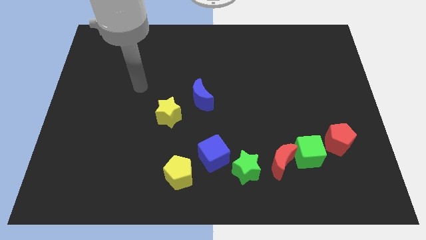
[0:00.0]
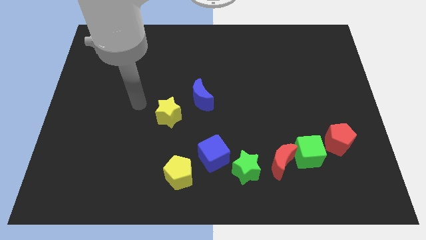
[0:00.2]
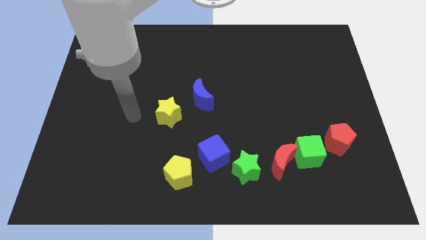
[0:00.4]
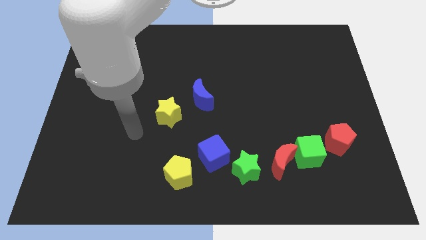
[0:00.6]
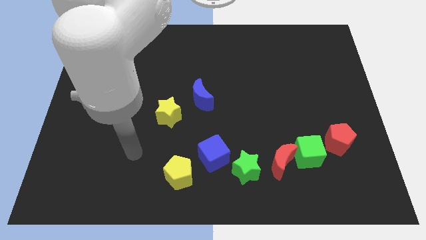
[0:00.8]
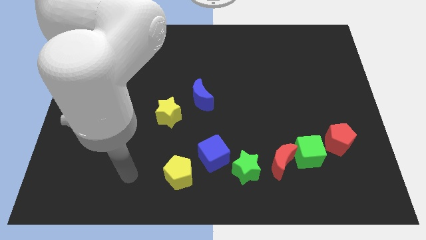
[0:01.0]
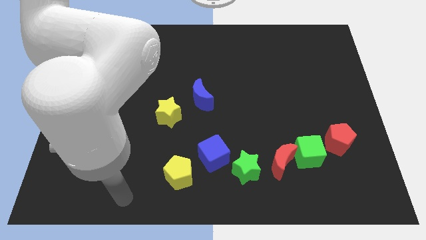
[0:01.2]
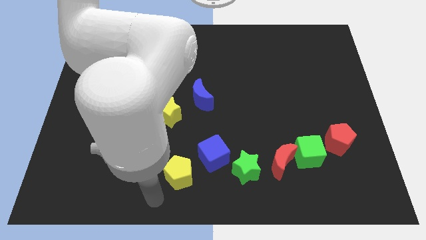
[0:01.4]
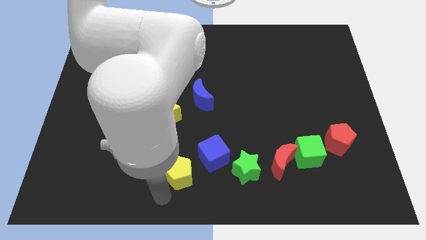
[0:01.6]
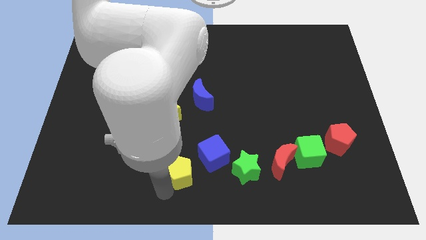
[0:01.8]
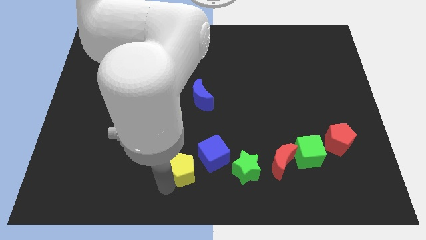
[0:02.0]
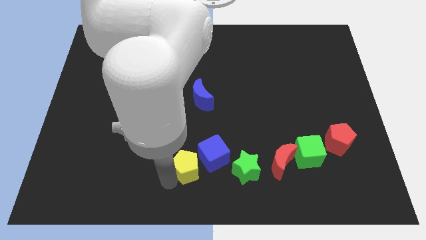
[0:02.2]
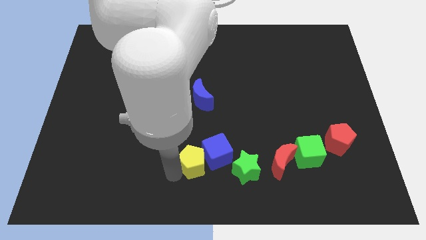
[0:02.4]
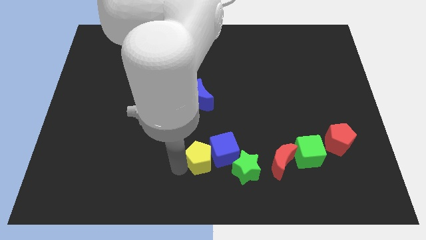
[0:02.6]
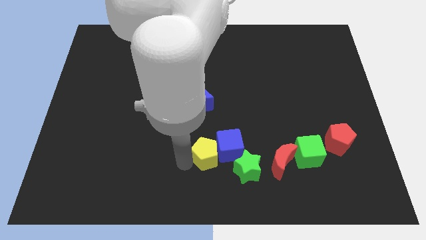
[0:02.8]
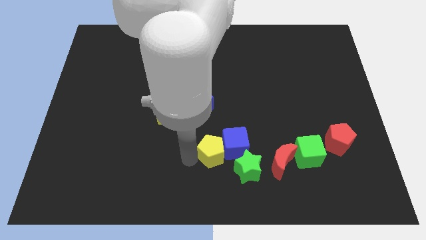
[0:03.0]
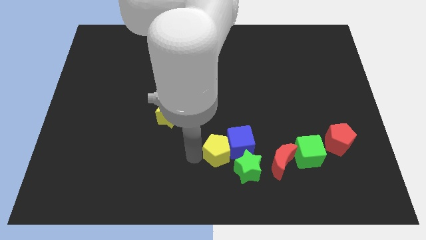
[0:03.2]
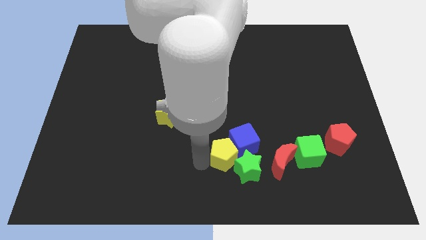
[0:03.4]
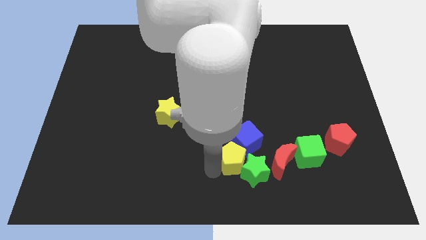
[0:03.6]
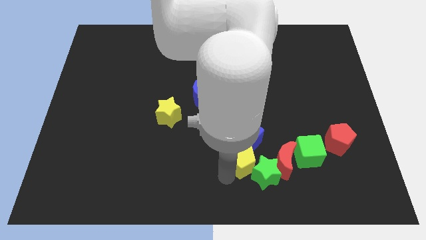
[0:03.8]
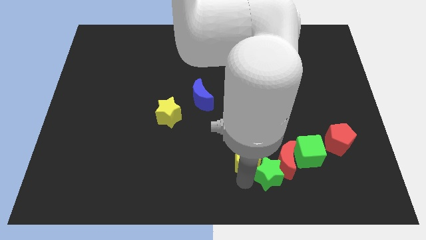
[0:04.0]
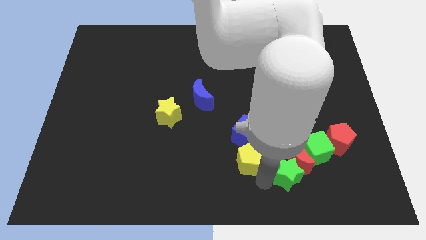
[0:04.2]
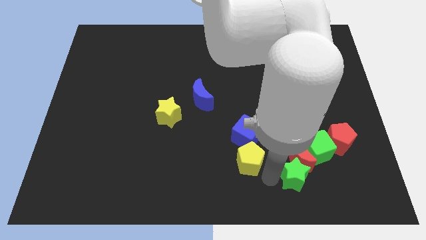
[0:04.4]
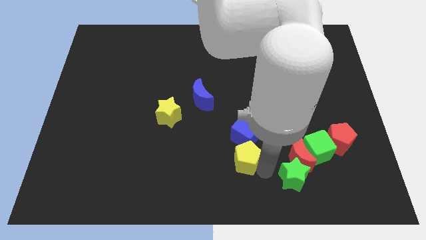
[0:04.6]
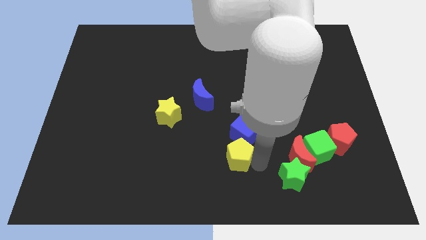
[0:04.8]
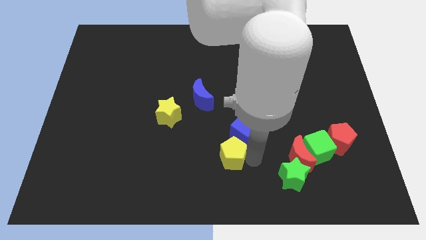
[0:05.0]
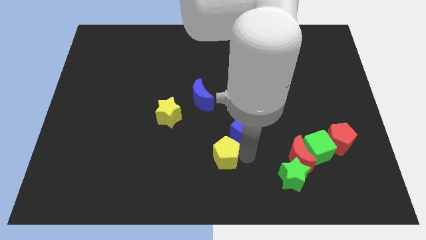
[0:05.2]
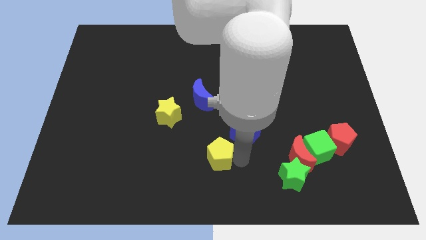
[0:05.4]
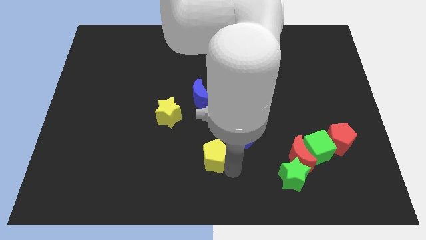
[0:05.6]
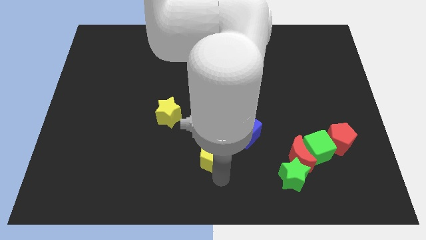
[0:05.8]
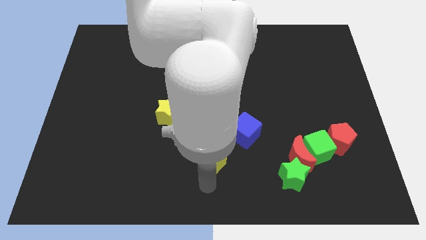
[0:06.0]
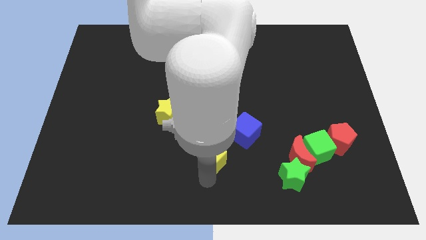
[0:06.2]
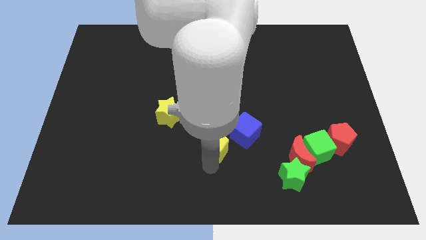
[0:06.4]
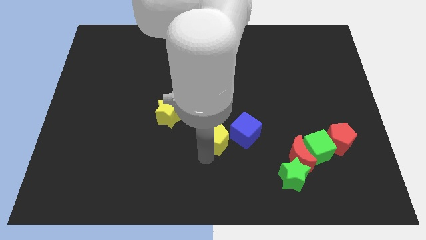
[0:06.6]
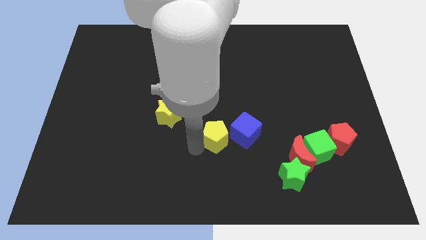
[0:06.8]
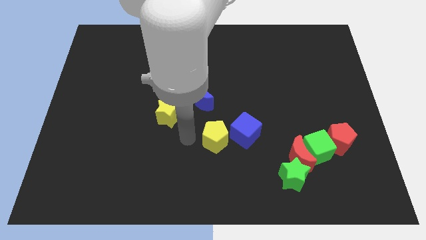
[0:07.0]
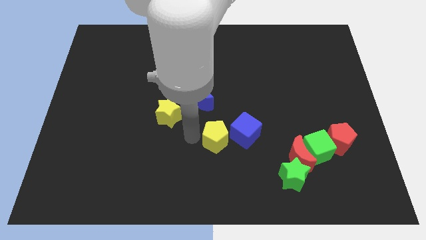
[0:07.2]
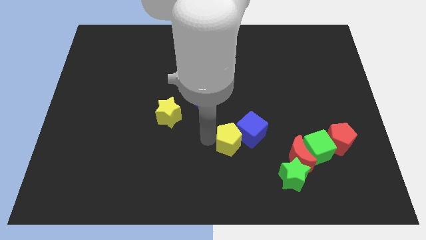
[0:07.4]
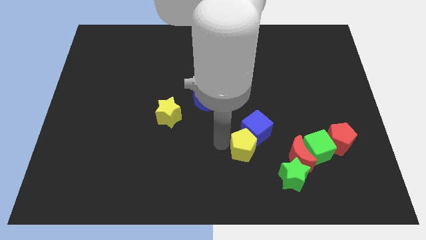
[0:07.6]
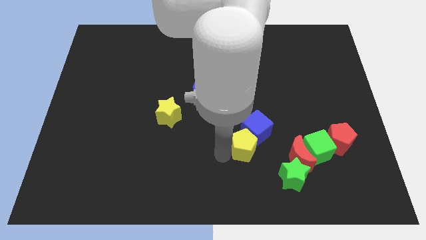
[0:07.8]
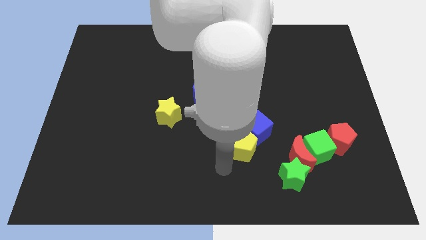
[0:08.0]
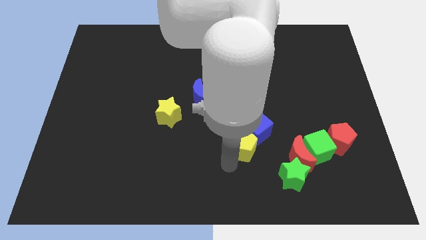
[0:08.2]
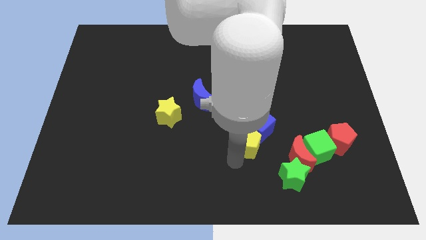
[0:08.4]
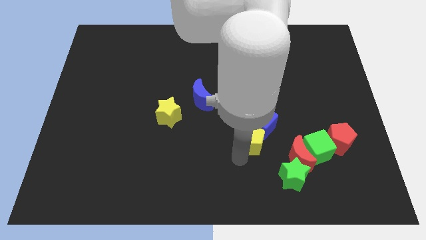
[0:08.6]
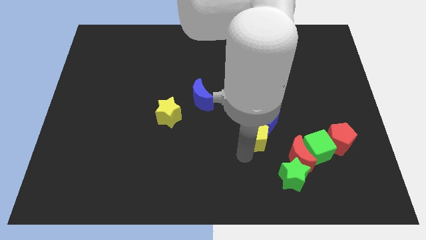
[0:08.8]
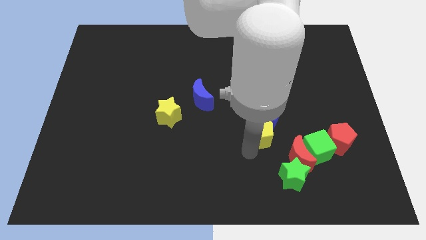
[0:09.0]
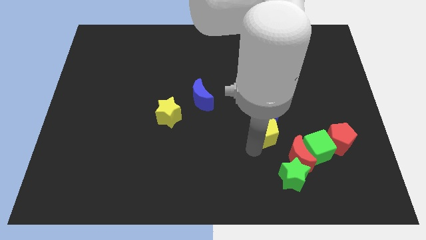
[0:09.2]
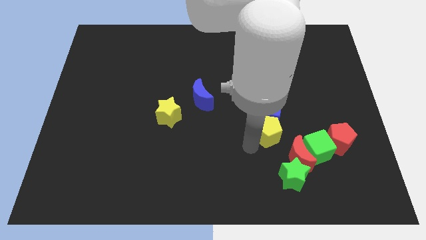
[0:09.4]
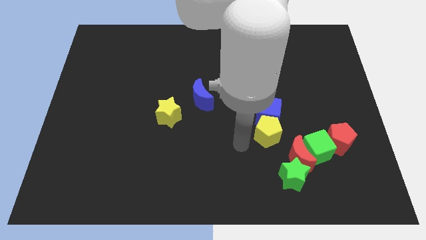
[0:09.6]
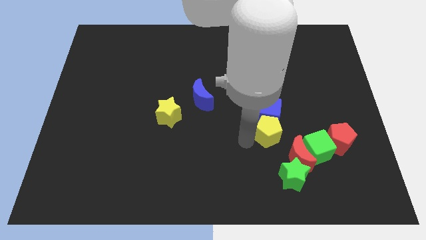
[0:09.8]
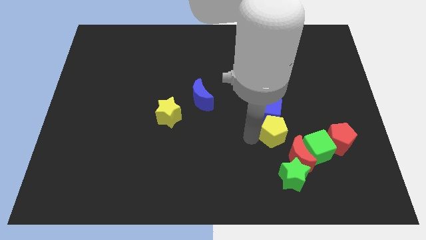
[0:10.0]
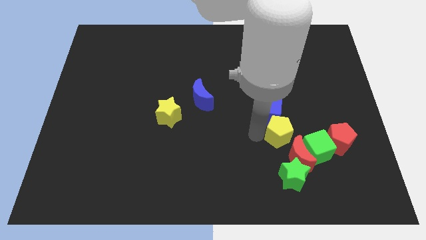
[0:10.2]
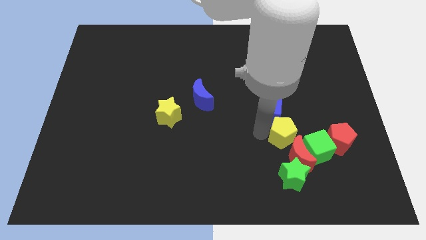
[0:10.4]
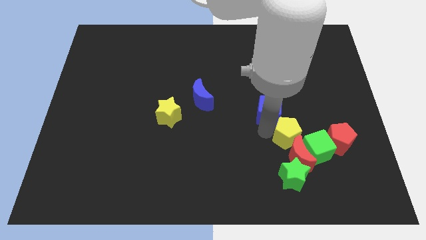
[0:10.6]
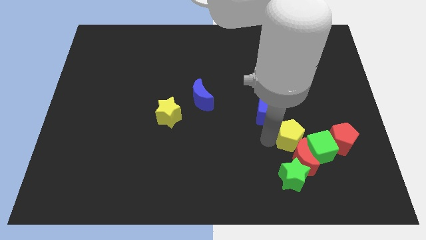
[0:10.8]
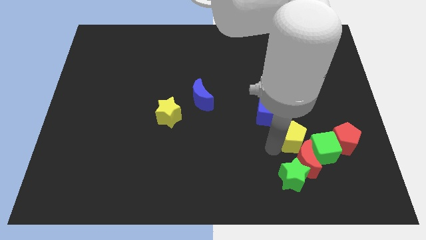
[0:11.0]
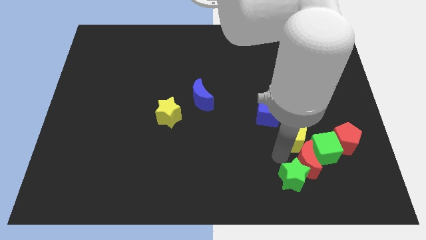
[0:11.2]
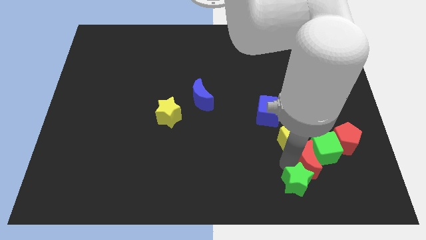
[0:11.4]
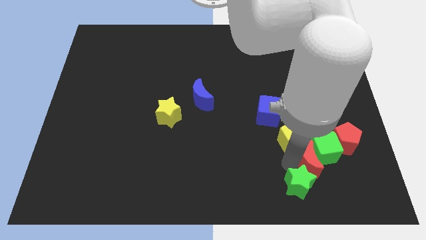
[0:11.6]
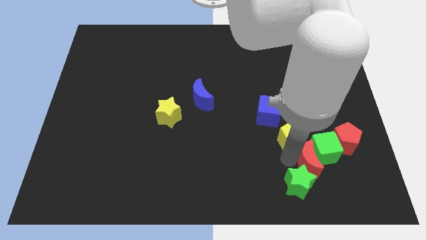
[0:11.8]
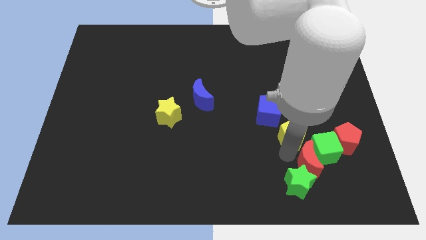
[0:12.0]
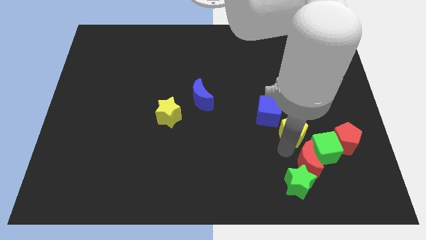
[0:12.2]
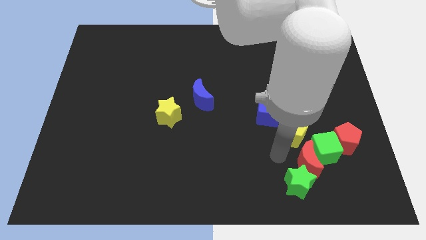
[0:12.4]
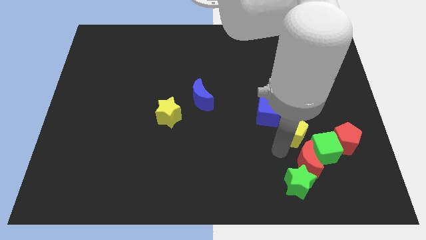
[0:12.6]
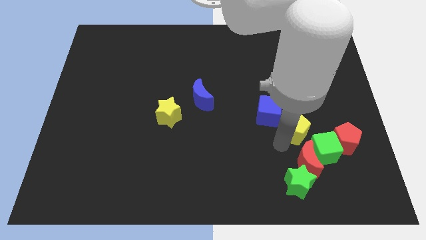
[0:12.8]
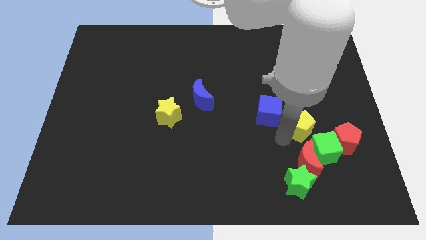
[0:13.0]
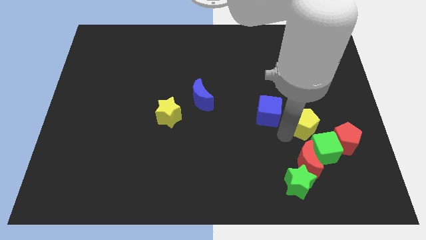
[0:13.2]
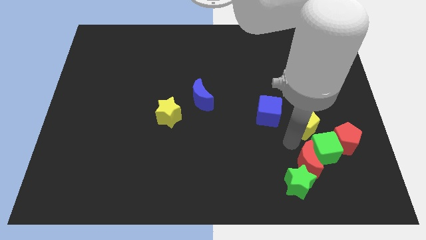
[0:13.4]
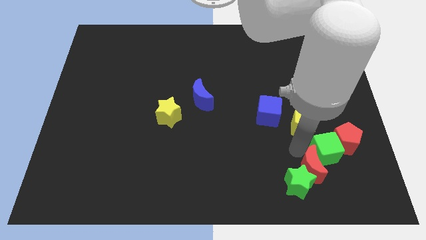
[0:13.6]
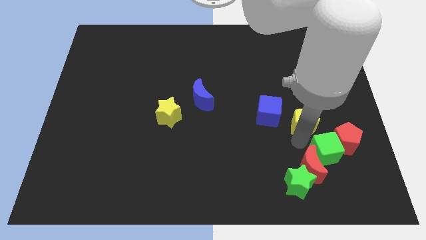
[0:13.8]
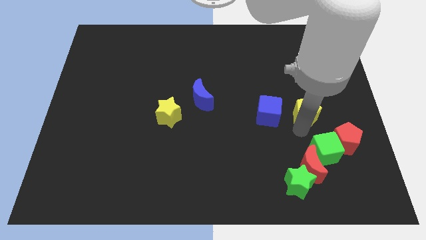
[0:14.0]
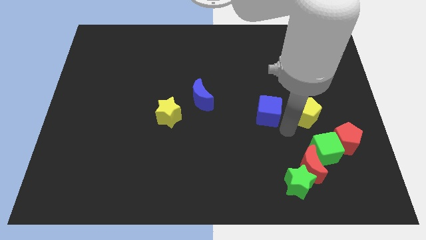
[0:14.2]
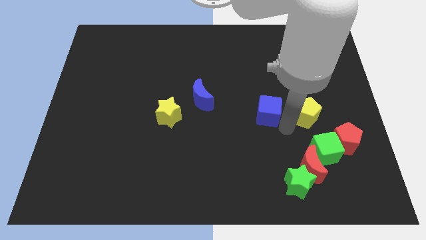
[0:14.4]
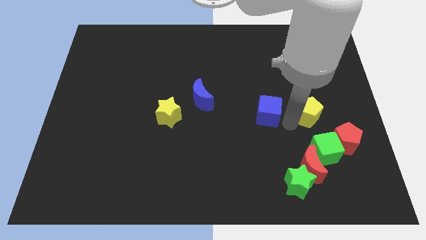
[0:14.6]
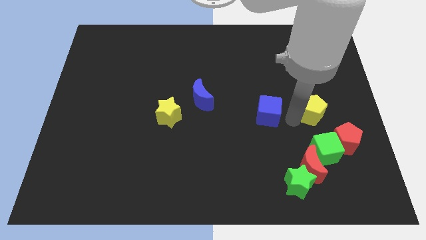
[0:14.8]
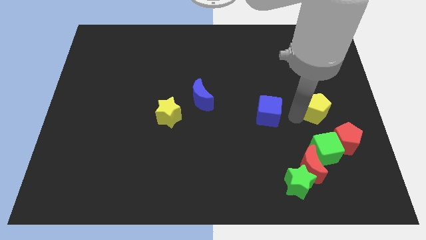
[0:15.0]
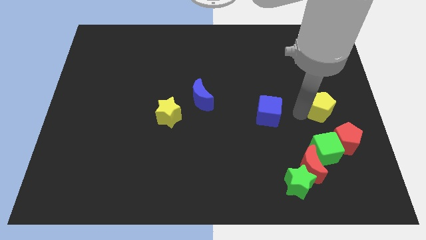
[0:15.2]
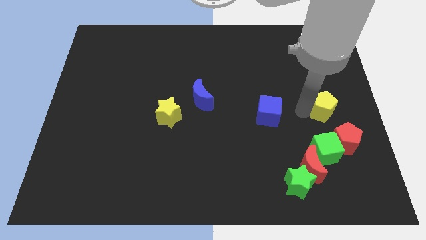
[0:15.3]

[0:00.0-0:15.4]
move the yellow pentagon to the right side
